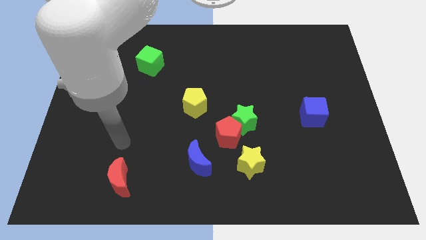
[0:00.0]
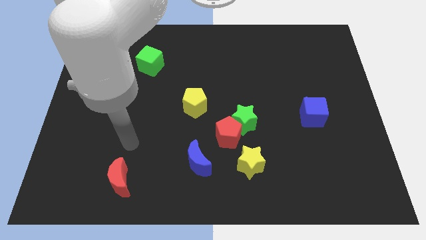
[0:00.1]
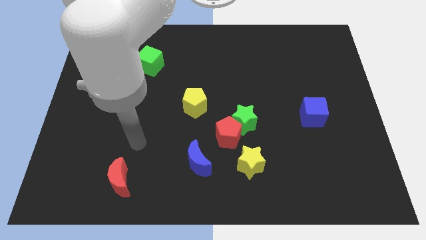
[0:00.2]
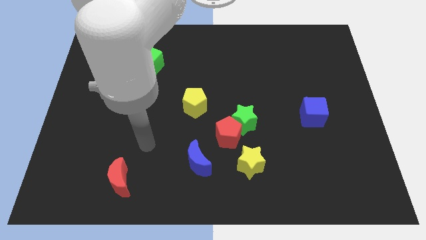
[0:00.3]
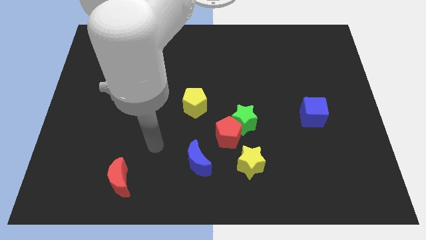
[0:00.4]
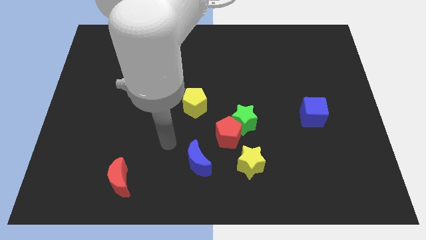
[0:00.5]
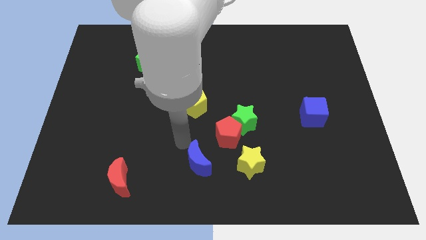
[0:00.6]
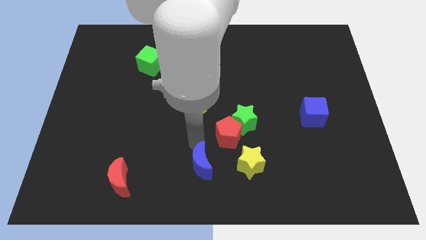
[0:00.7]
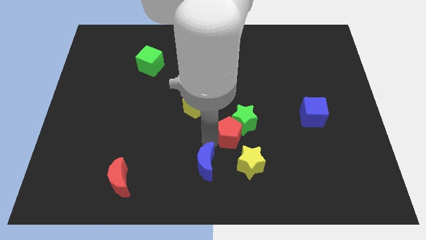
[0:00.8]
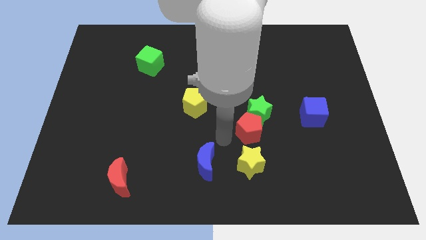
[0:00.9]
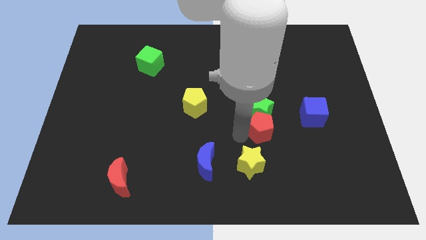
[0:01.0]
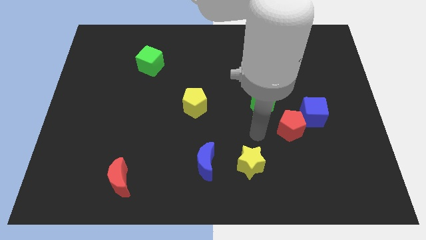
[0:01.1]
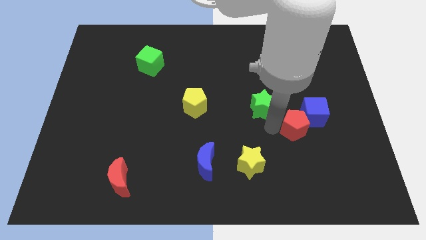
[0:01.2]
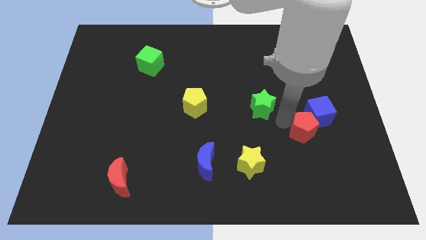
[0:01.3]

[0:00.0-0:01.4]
pull the green star apart from the red pentagon

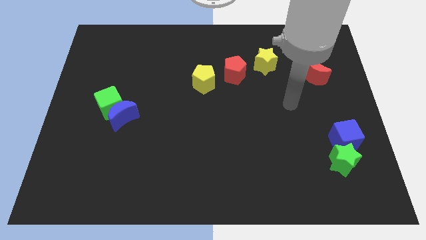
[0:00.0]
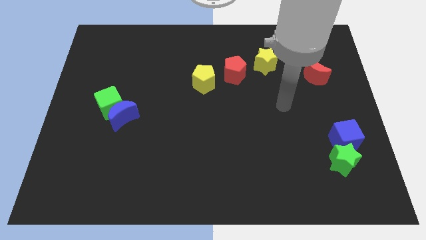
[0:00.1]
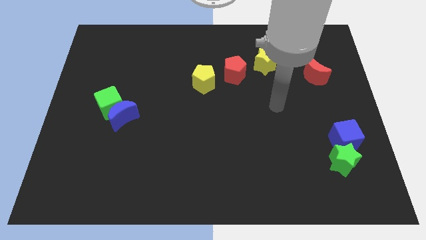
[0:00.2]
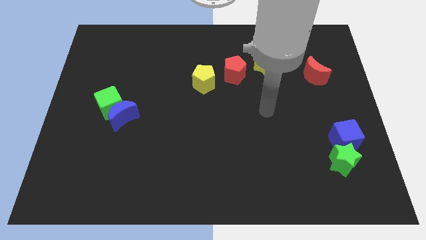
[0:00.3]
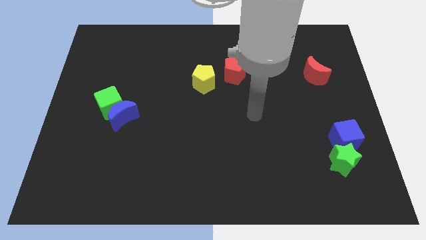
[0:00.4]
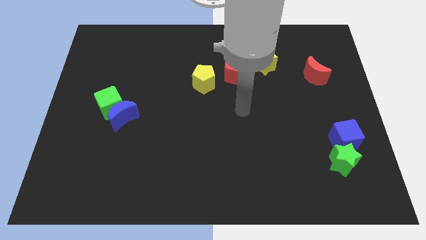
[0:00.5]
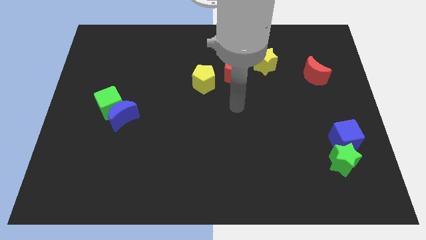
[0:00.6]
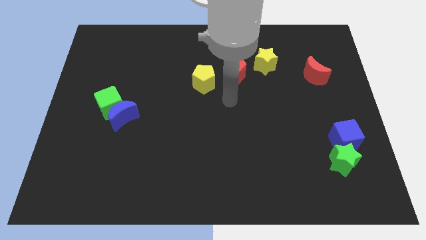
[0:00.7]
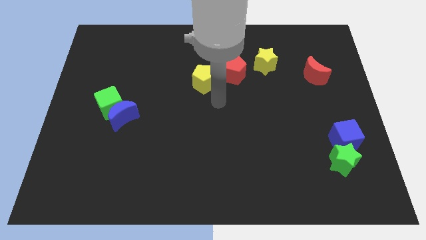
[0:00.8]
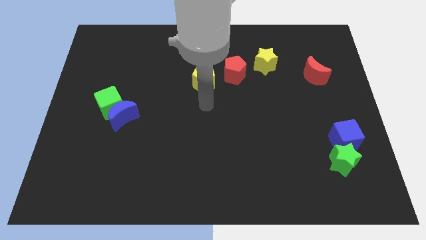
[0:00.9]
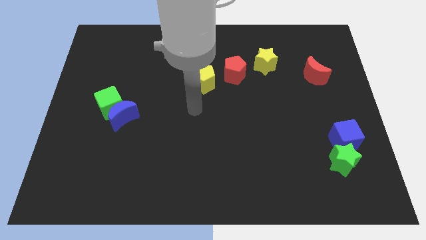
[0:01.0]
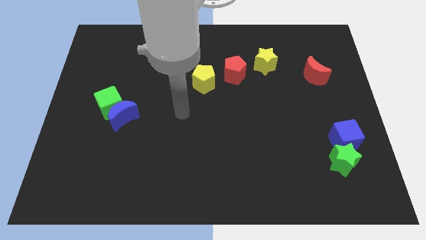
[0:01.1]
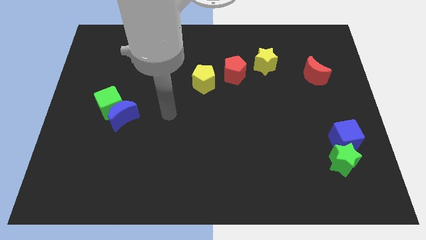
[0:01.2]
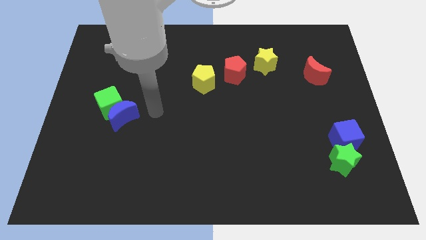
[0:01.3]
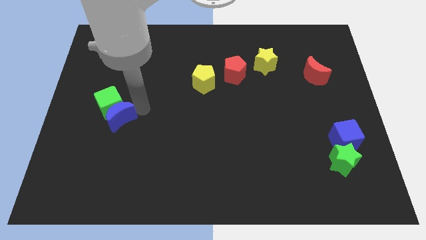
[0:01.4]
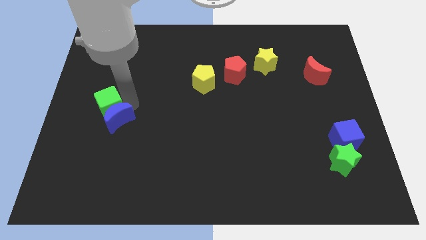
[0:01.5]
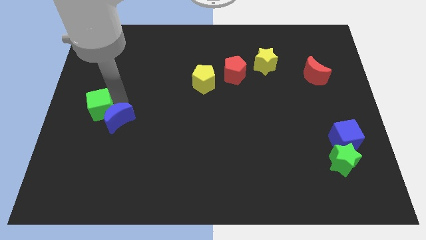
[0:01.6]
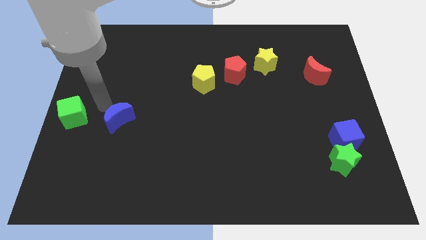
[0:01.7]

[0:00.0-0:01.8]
separate the blue moon from the green cube

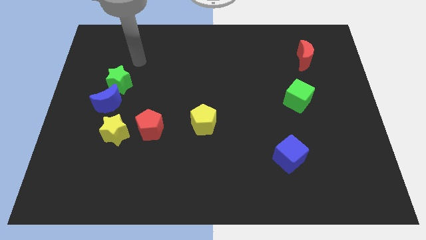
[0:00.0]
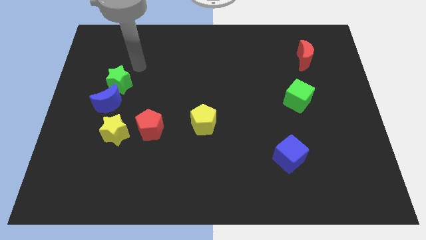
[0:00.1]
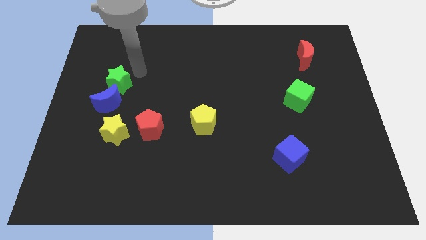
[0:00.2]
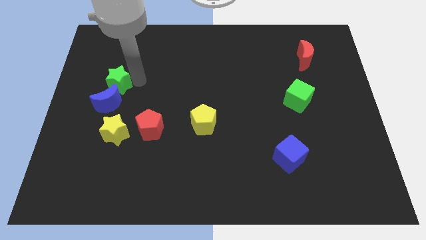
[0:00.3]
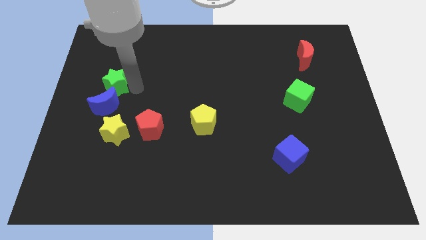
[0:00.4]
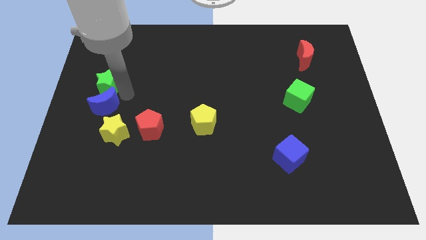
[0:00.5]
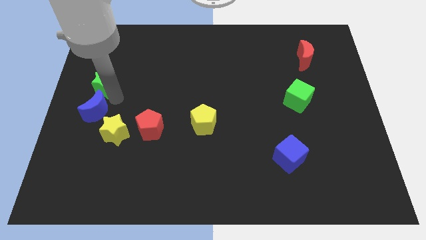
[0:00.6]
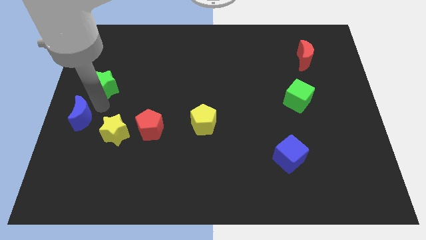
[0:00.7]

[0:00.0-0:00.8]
separate the green star from the blue moon

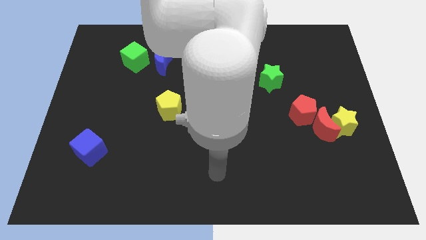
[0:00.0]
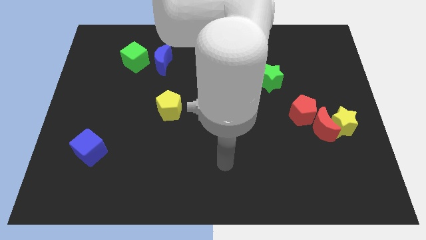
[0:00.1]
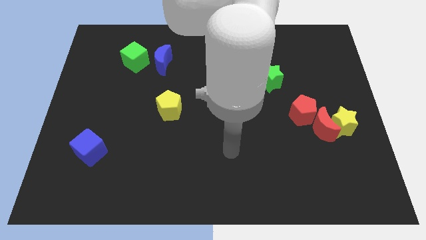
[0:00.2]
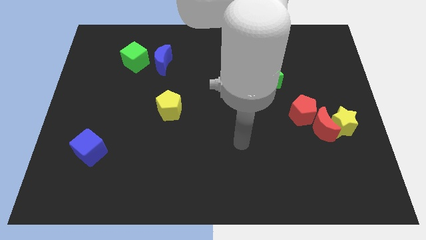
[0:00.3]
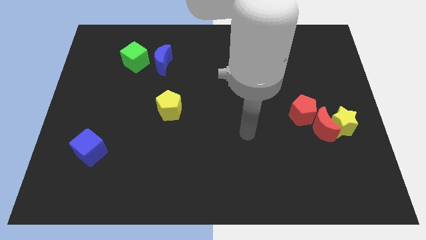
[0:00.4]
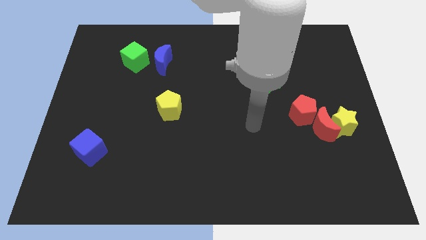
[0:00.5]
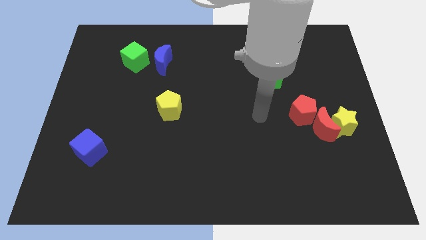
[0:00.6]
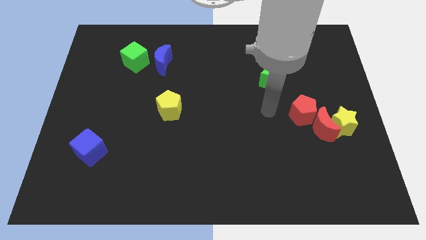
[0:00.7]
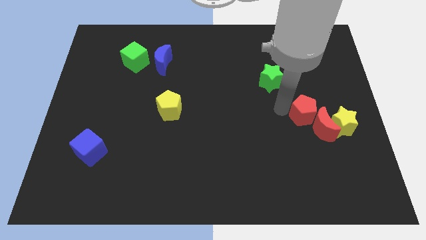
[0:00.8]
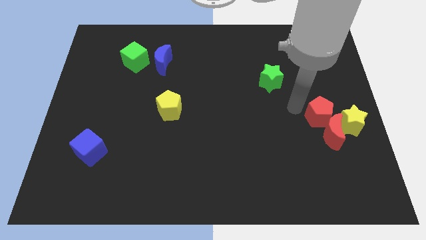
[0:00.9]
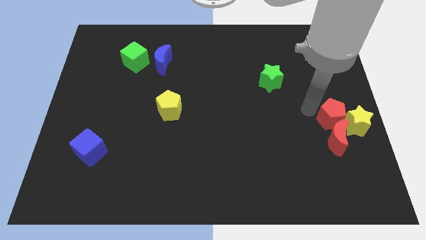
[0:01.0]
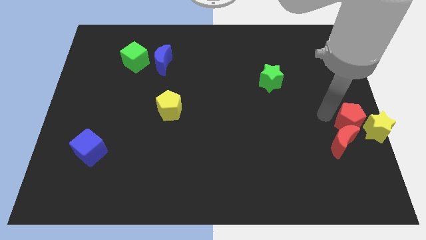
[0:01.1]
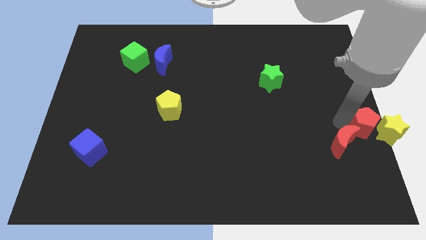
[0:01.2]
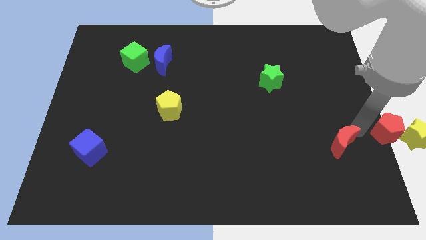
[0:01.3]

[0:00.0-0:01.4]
pull the red moon apart from the yellow star and red pentagon

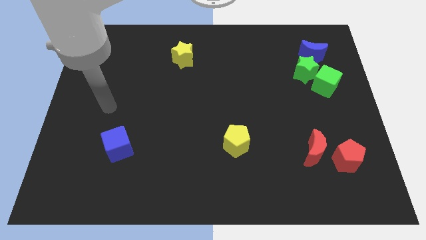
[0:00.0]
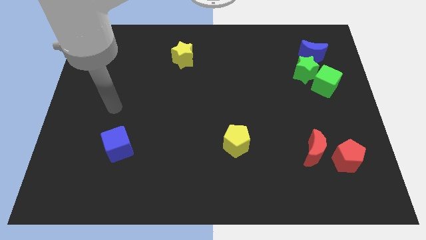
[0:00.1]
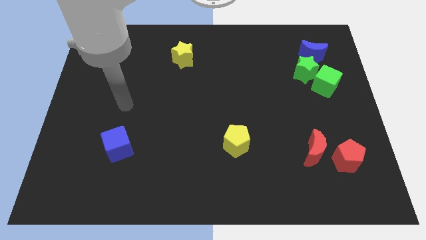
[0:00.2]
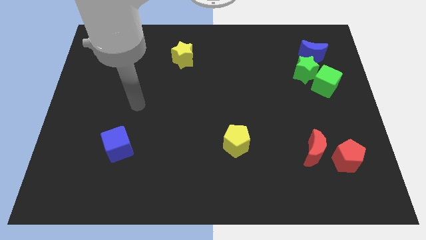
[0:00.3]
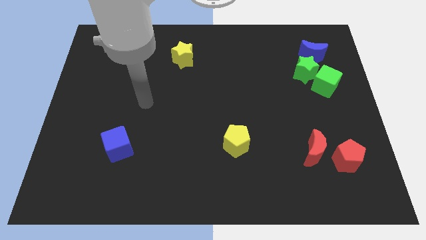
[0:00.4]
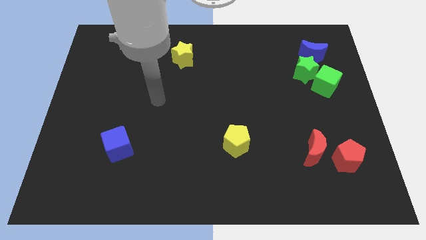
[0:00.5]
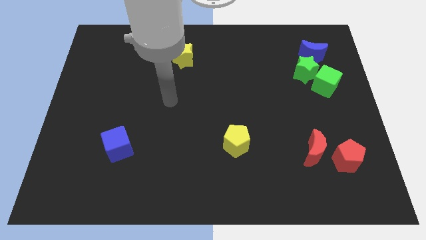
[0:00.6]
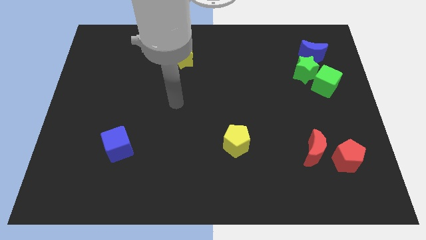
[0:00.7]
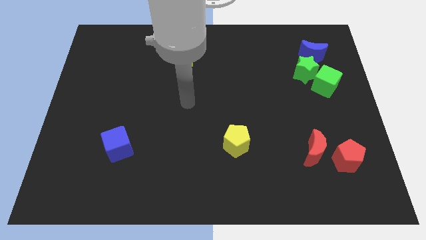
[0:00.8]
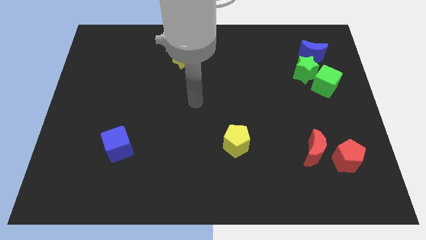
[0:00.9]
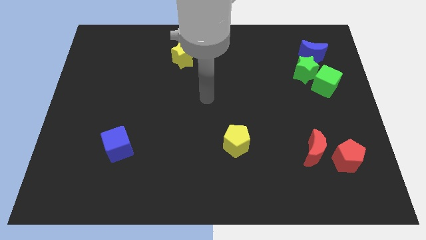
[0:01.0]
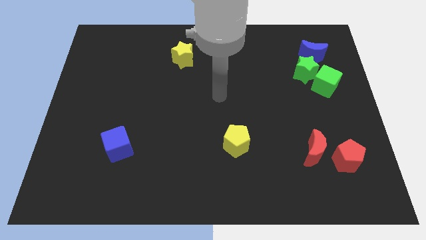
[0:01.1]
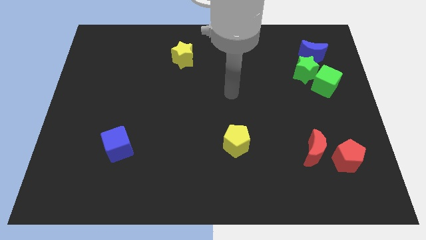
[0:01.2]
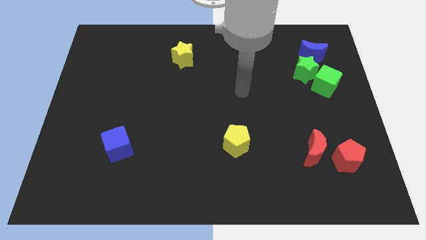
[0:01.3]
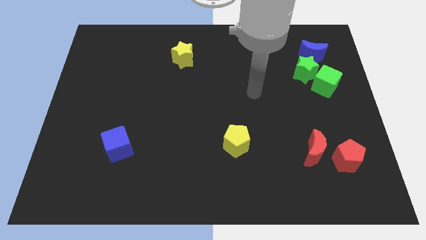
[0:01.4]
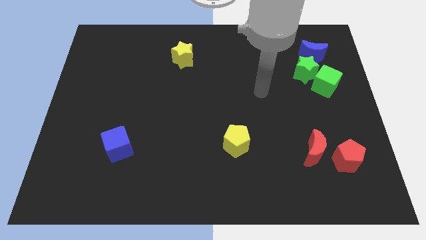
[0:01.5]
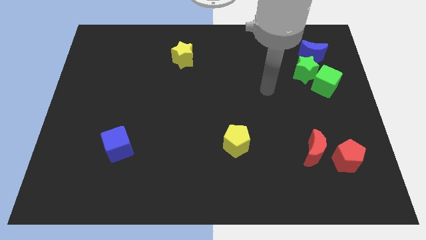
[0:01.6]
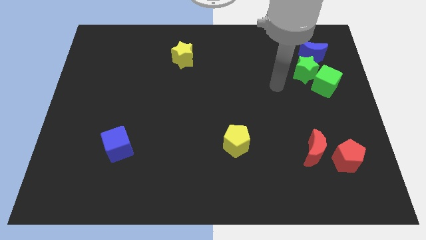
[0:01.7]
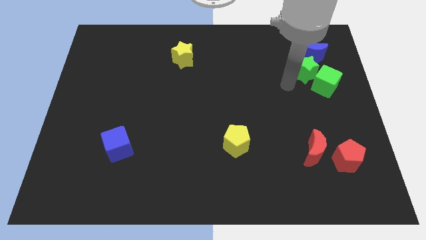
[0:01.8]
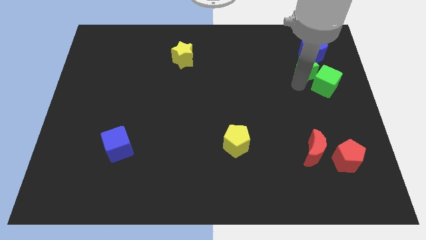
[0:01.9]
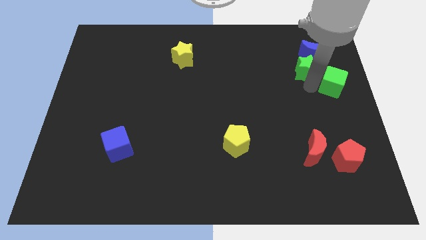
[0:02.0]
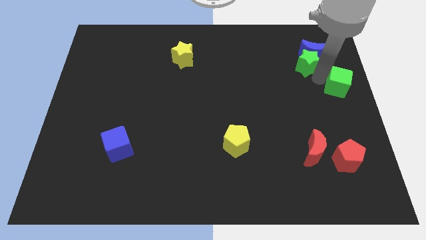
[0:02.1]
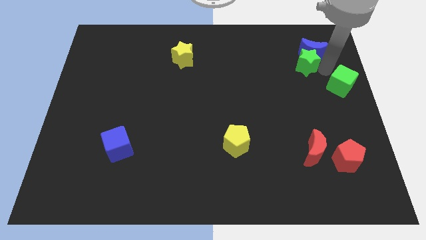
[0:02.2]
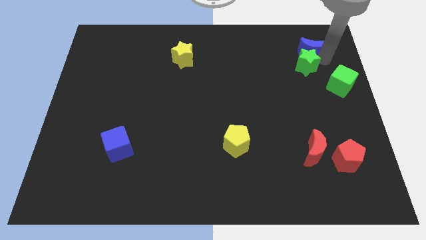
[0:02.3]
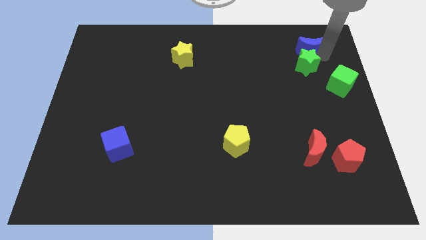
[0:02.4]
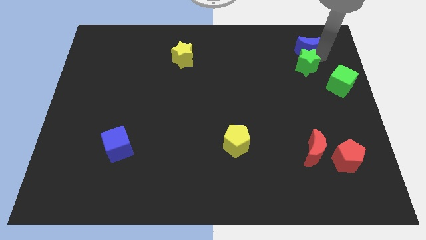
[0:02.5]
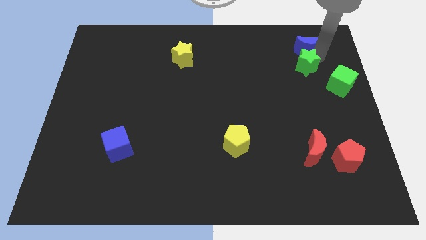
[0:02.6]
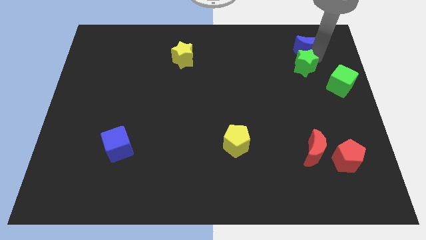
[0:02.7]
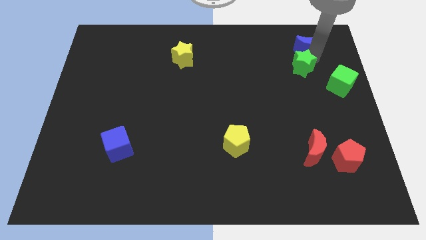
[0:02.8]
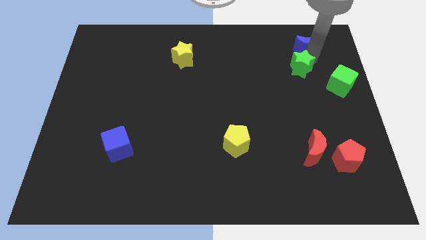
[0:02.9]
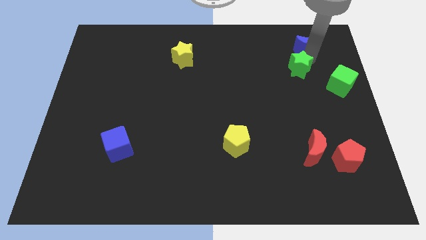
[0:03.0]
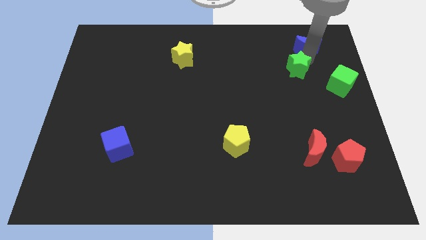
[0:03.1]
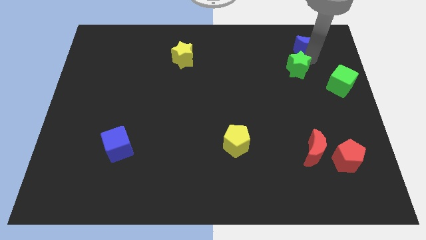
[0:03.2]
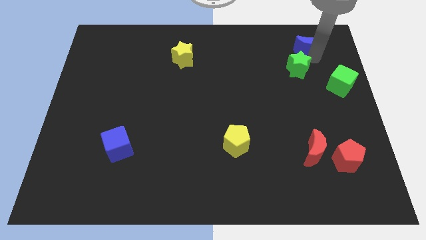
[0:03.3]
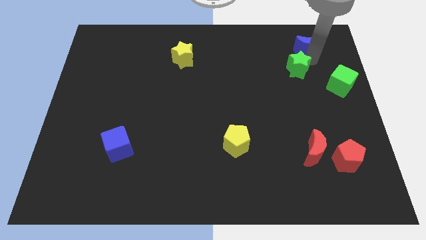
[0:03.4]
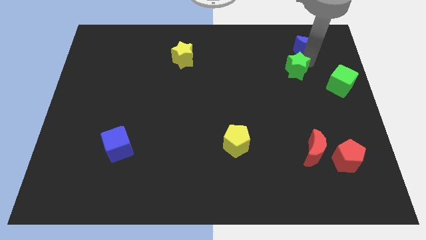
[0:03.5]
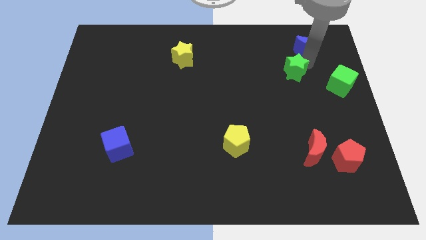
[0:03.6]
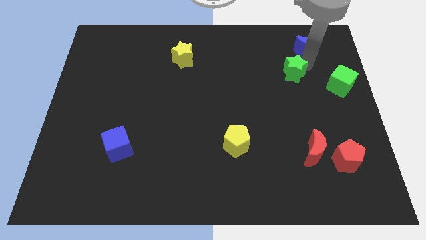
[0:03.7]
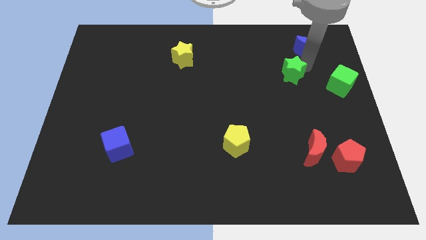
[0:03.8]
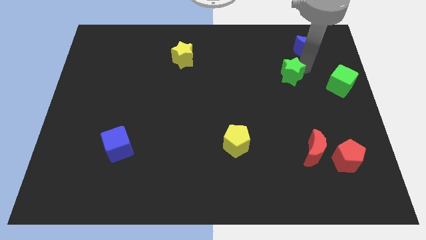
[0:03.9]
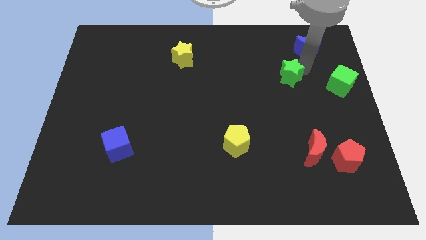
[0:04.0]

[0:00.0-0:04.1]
move the green star away from the green cube and blue moon
